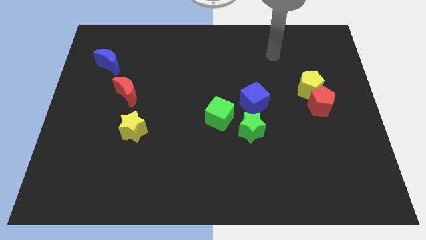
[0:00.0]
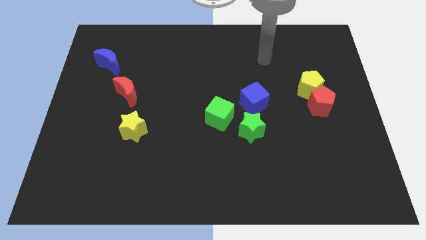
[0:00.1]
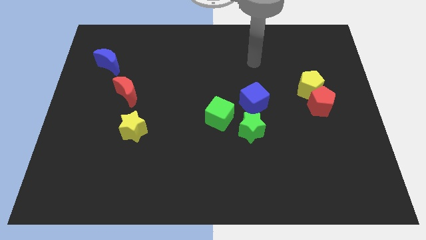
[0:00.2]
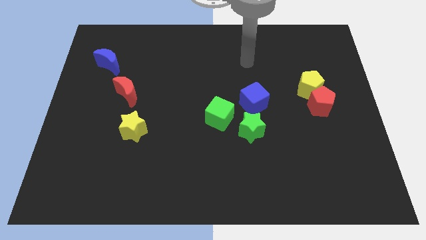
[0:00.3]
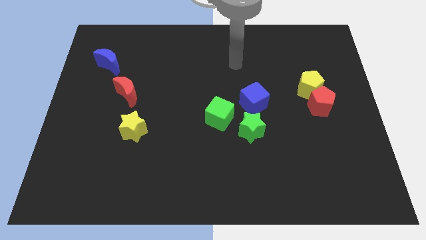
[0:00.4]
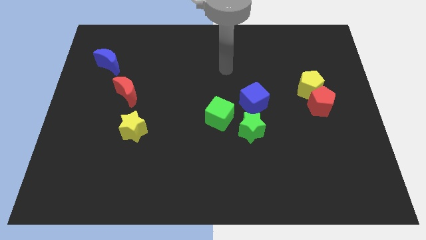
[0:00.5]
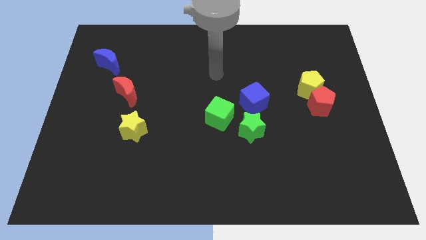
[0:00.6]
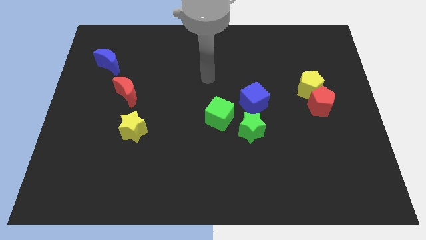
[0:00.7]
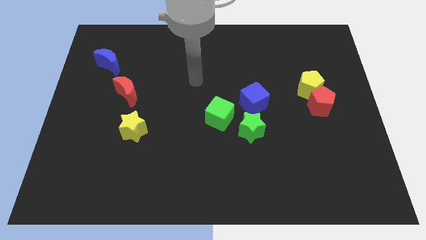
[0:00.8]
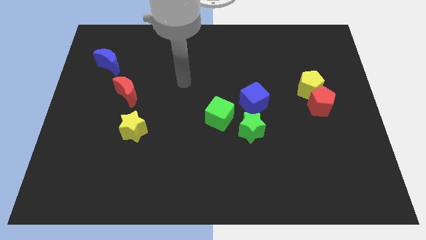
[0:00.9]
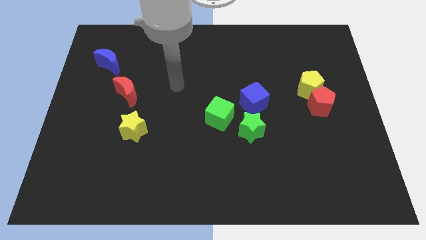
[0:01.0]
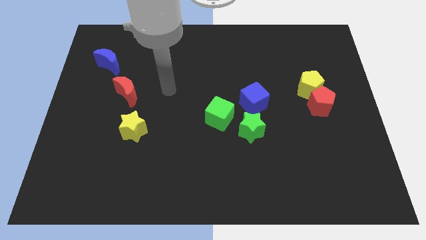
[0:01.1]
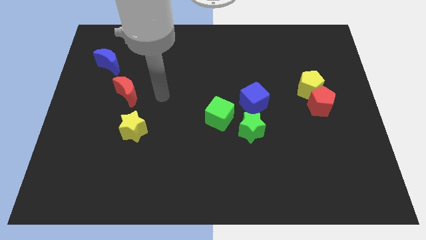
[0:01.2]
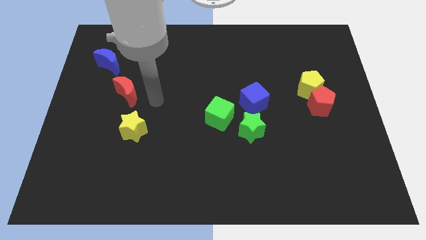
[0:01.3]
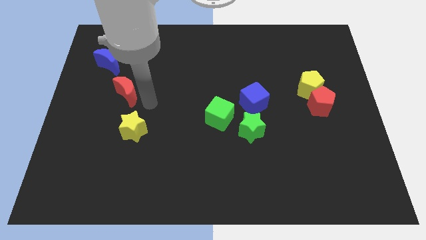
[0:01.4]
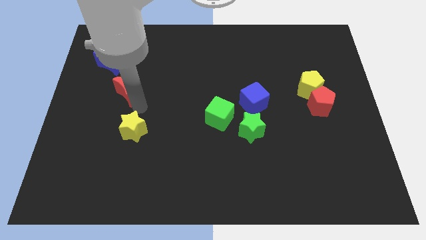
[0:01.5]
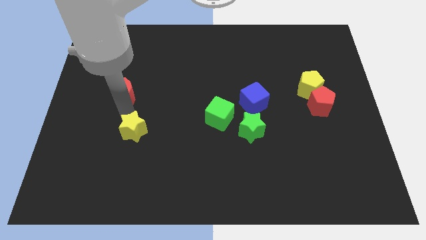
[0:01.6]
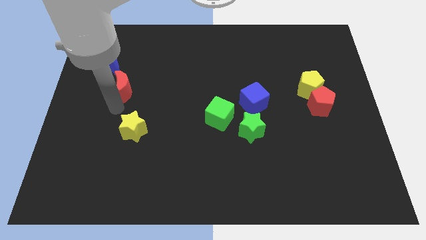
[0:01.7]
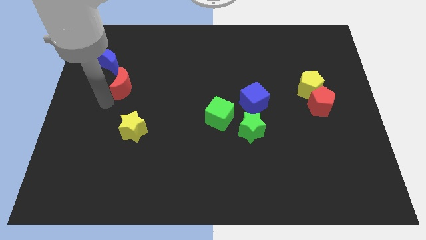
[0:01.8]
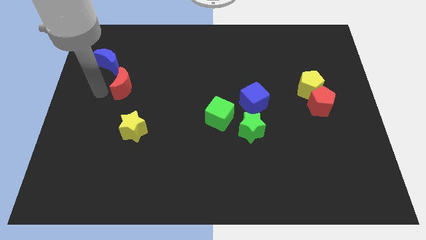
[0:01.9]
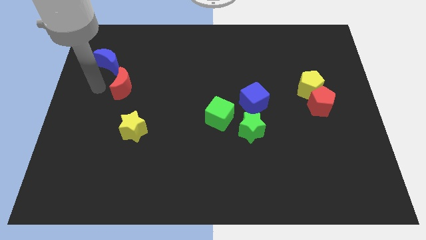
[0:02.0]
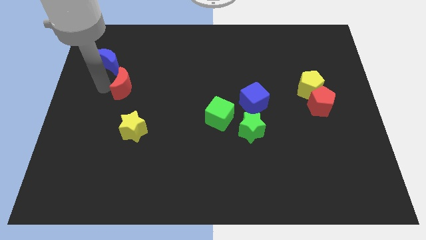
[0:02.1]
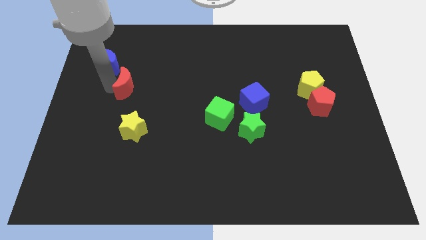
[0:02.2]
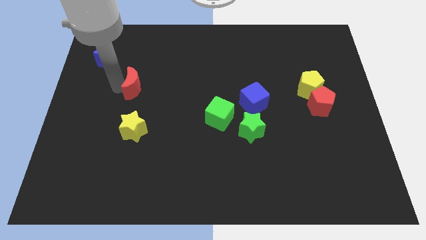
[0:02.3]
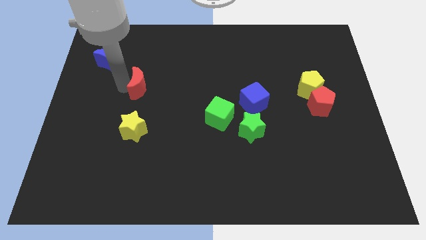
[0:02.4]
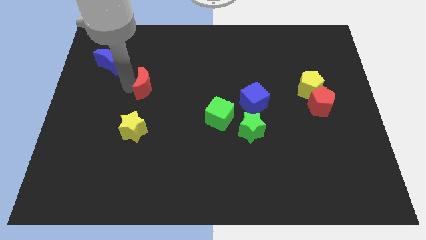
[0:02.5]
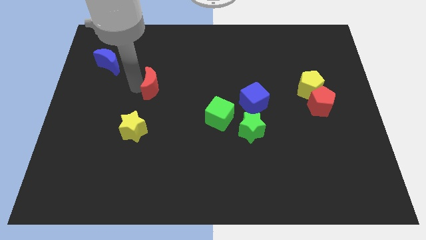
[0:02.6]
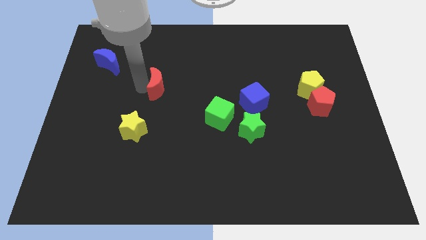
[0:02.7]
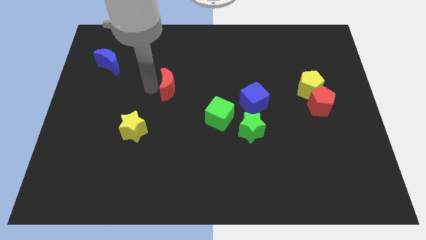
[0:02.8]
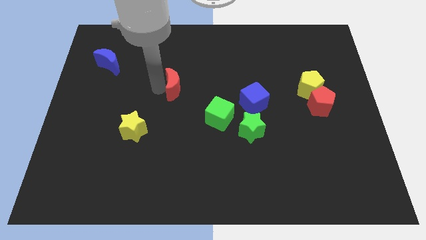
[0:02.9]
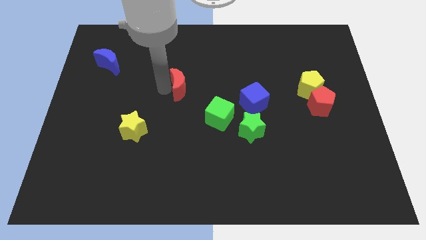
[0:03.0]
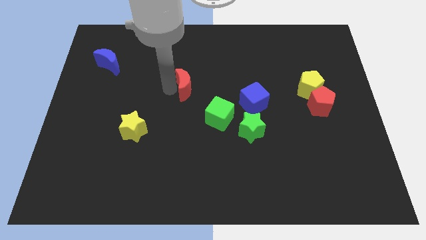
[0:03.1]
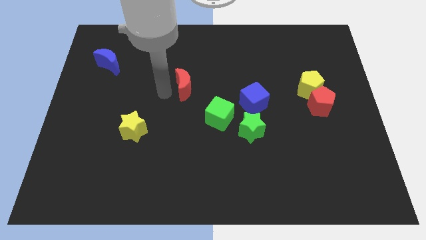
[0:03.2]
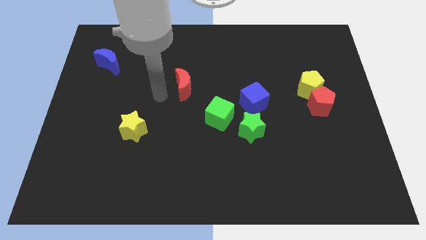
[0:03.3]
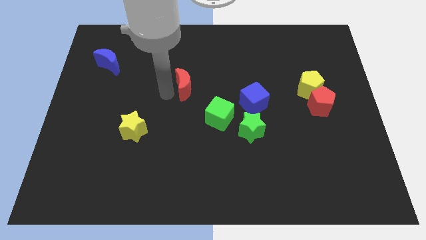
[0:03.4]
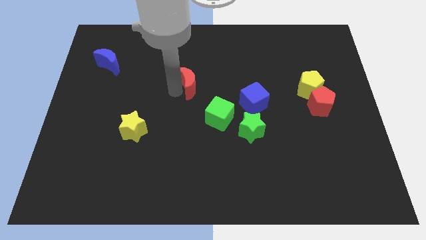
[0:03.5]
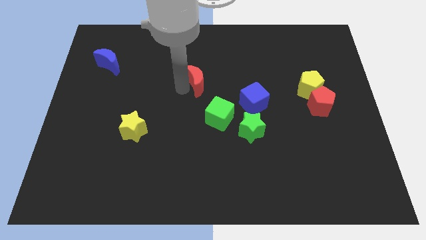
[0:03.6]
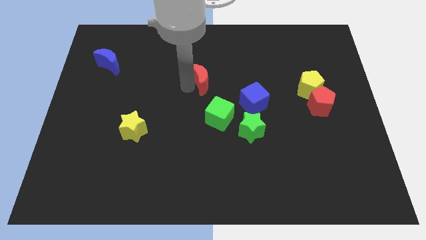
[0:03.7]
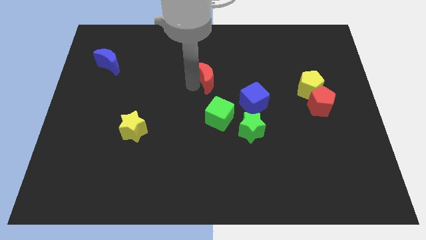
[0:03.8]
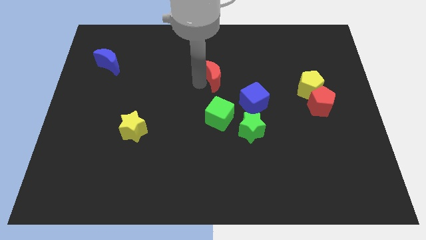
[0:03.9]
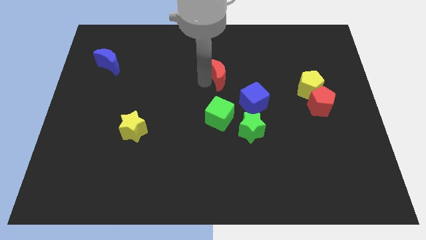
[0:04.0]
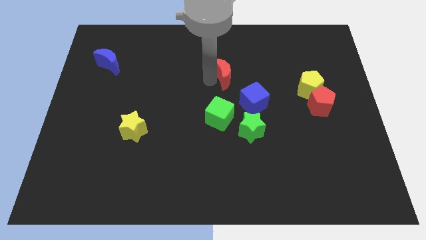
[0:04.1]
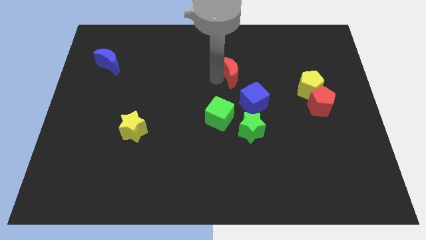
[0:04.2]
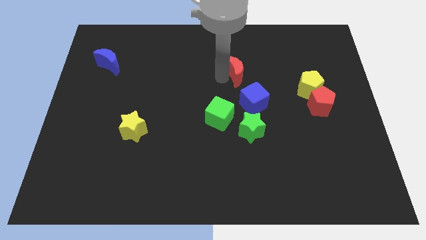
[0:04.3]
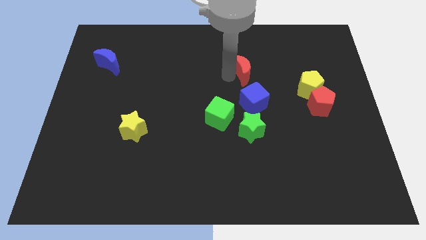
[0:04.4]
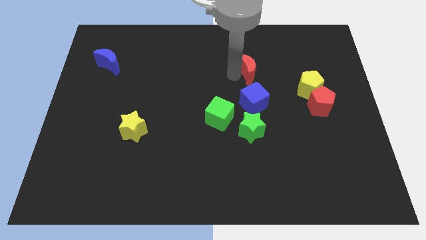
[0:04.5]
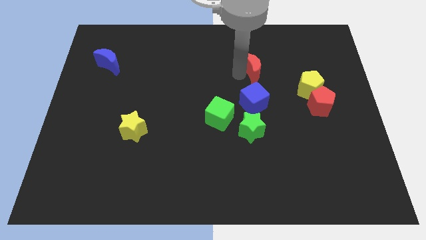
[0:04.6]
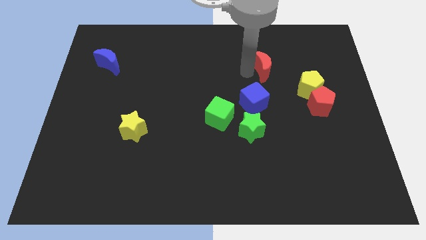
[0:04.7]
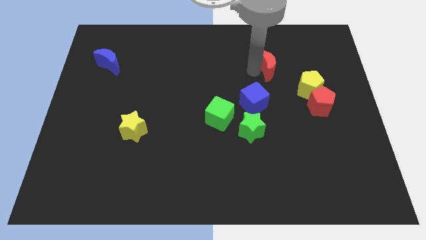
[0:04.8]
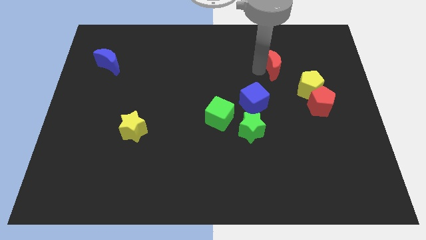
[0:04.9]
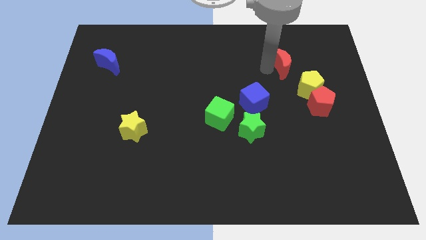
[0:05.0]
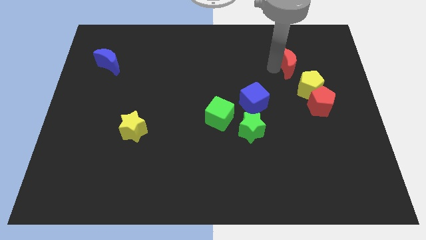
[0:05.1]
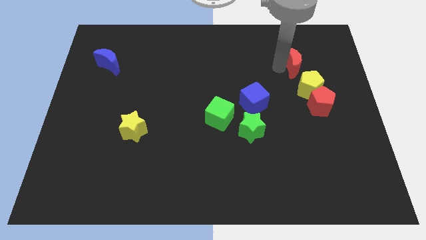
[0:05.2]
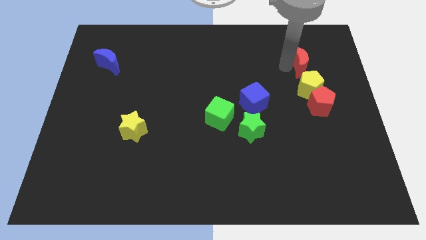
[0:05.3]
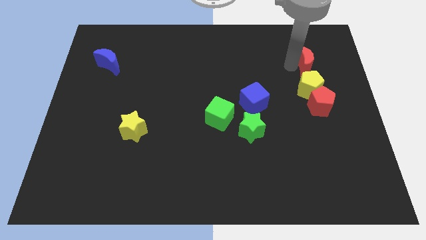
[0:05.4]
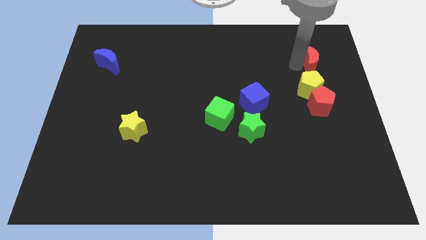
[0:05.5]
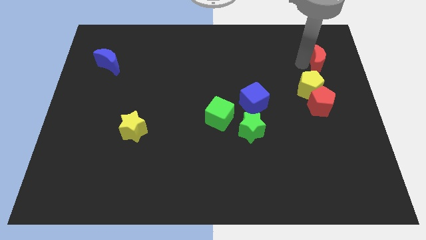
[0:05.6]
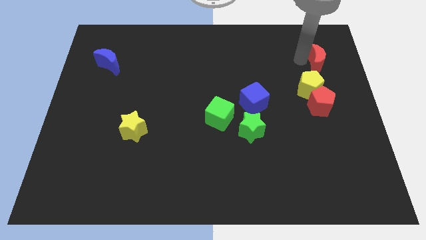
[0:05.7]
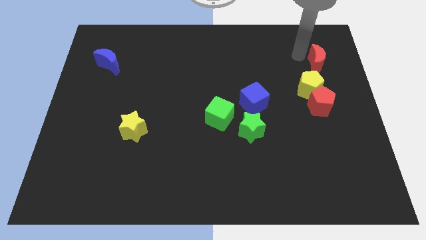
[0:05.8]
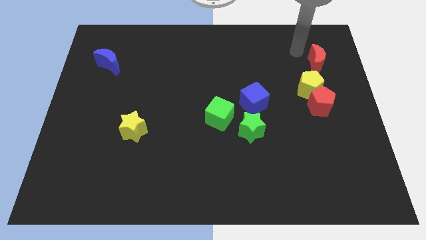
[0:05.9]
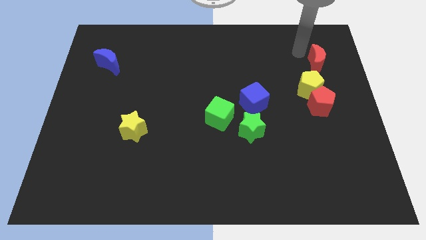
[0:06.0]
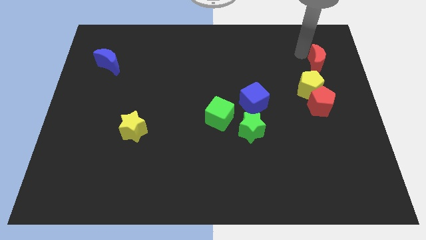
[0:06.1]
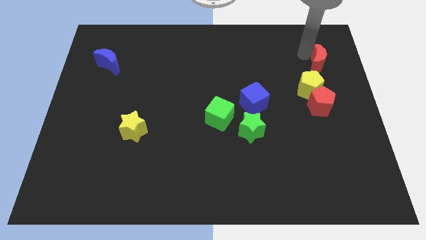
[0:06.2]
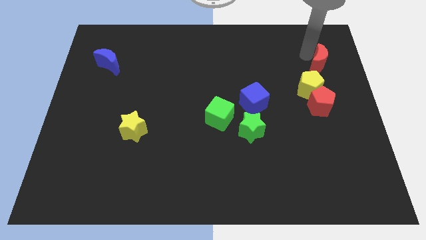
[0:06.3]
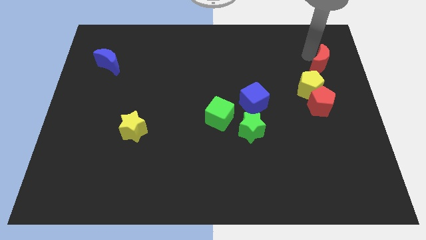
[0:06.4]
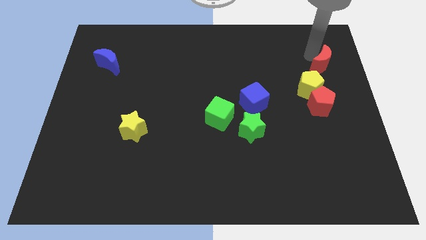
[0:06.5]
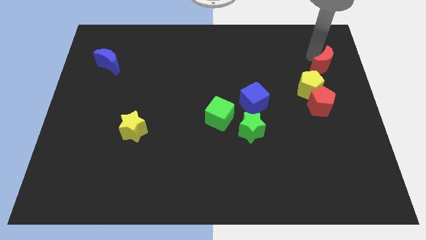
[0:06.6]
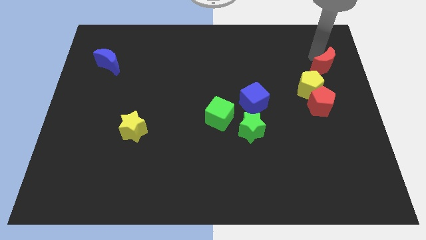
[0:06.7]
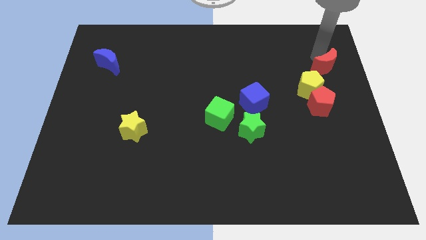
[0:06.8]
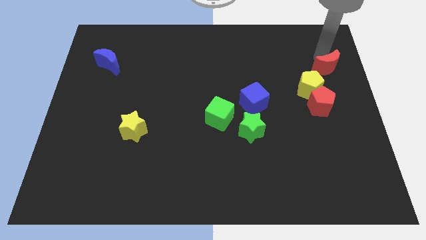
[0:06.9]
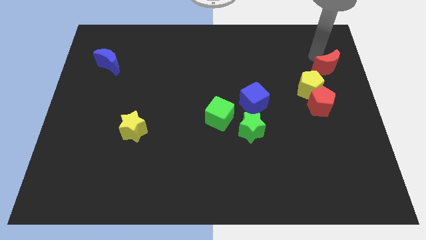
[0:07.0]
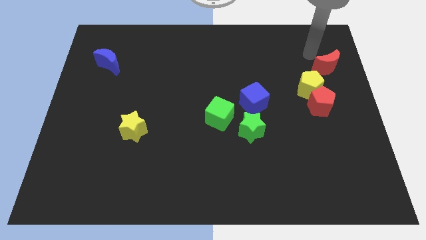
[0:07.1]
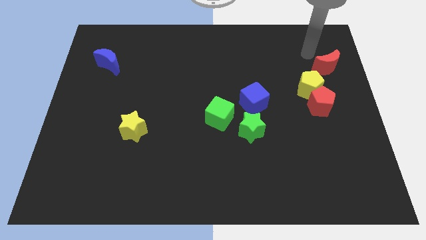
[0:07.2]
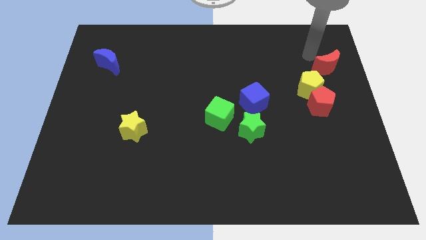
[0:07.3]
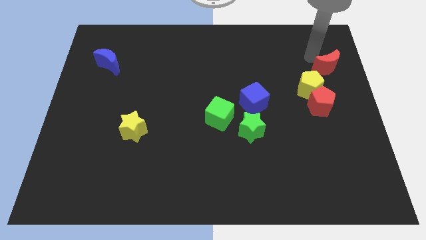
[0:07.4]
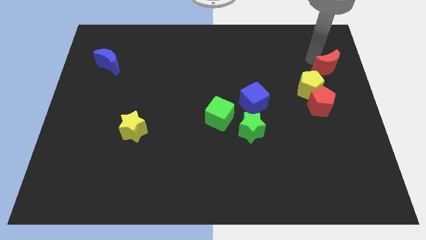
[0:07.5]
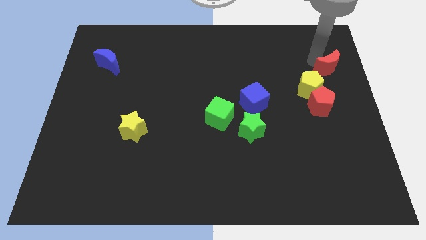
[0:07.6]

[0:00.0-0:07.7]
move the red moon to the center right
